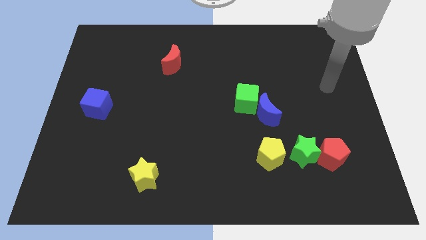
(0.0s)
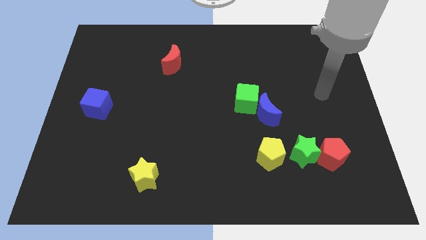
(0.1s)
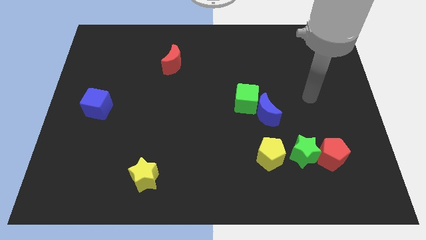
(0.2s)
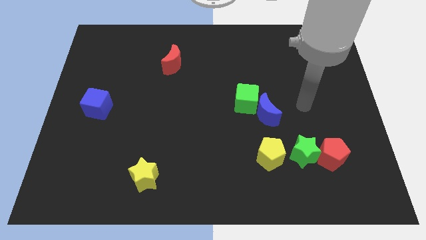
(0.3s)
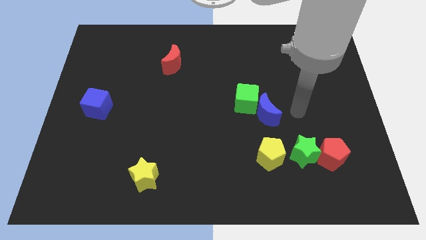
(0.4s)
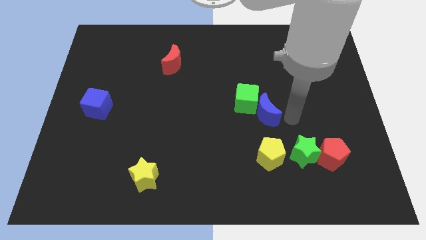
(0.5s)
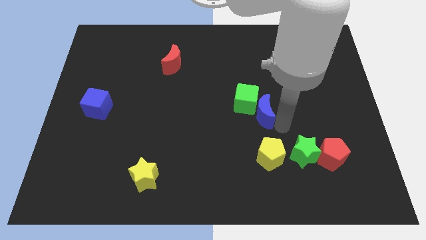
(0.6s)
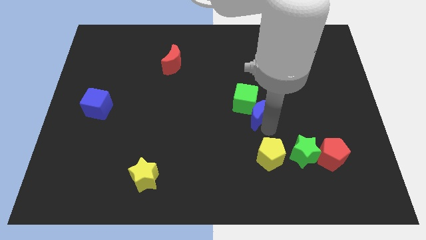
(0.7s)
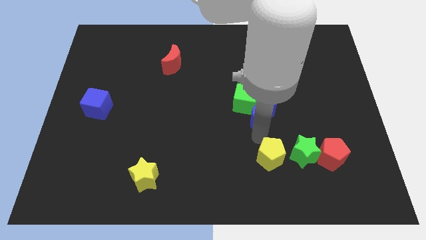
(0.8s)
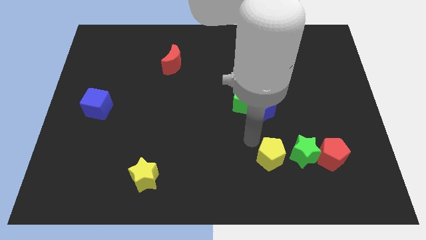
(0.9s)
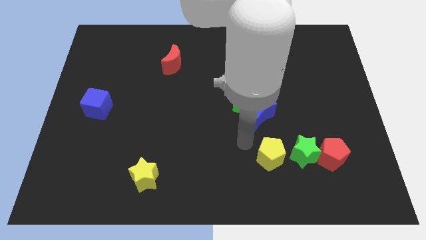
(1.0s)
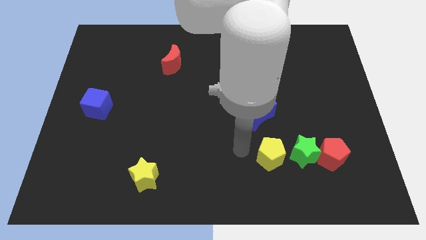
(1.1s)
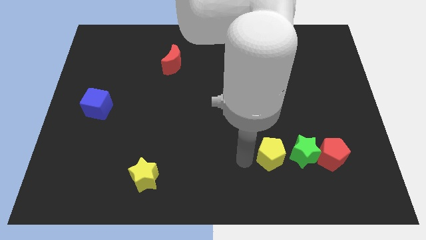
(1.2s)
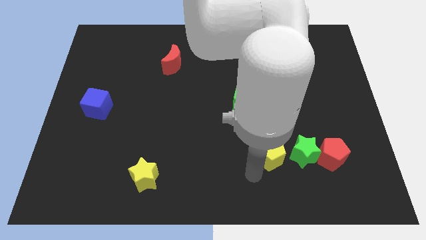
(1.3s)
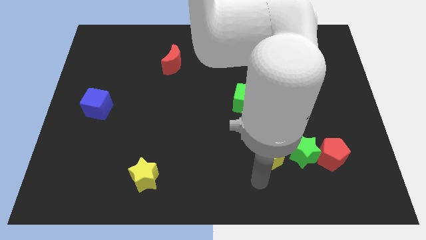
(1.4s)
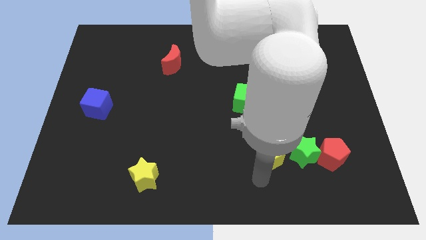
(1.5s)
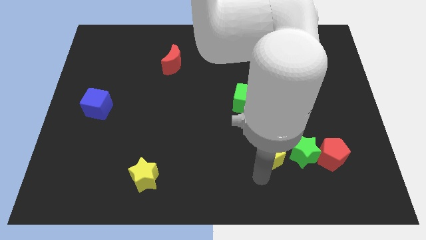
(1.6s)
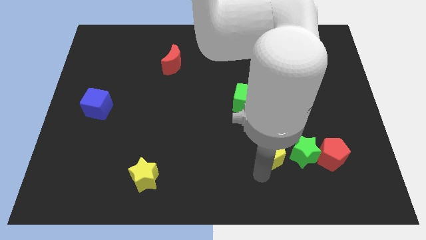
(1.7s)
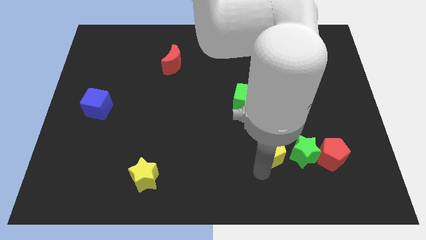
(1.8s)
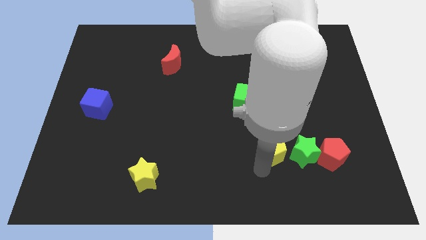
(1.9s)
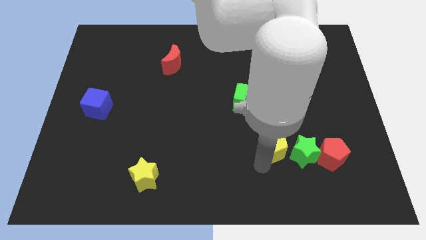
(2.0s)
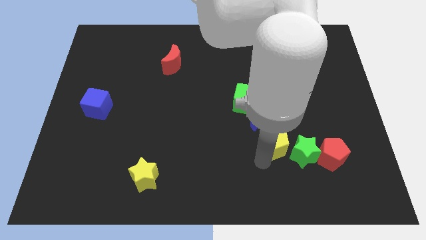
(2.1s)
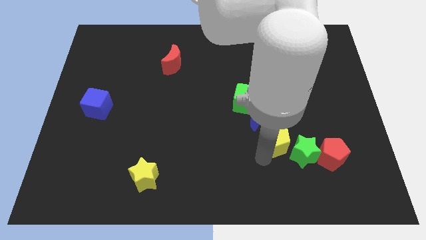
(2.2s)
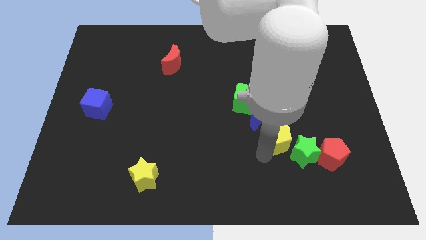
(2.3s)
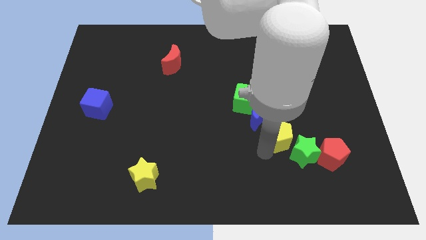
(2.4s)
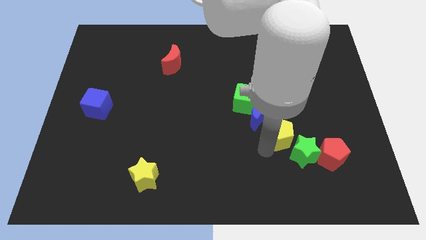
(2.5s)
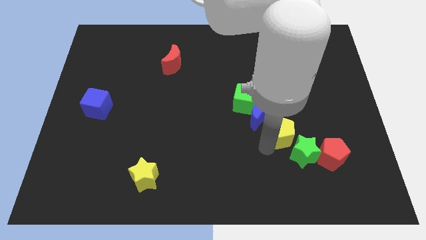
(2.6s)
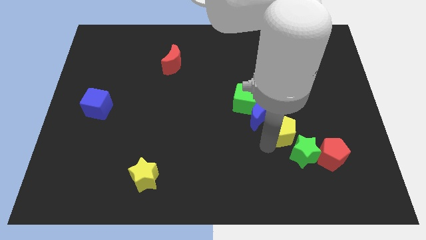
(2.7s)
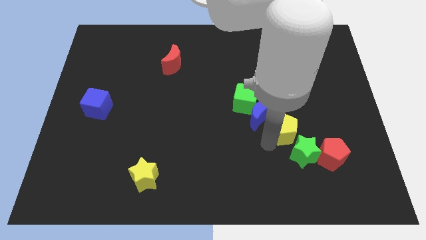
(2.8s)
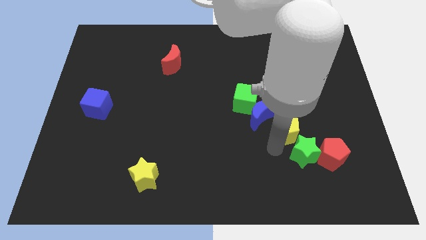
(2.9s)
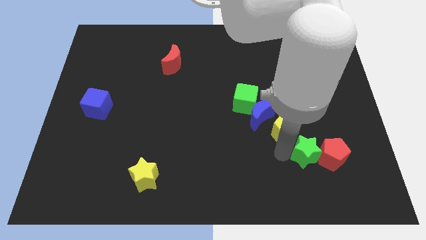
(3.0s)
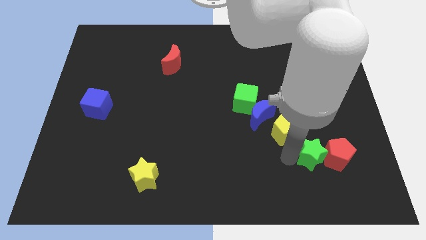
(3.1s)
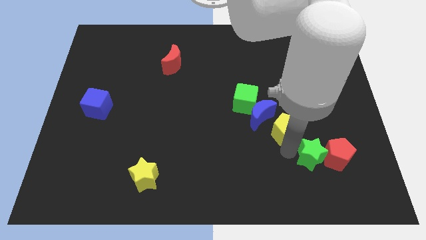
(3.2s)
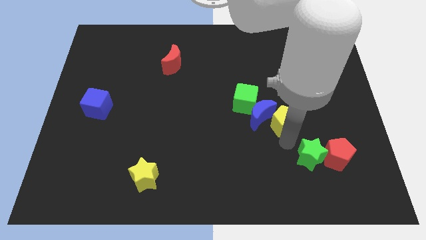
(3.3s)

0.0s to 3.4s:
push the yellow pentagon a little upwards

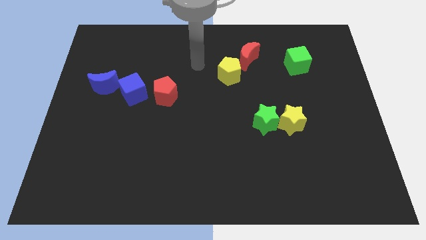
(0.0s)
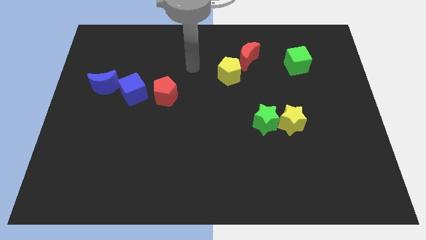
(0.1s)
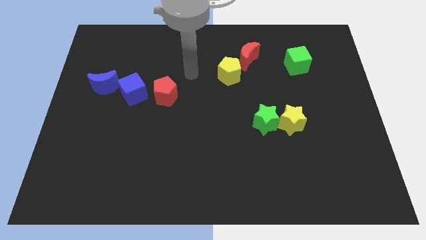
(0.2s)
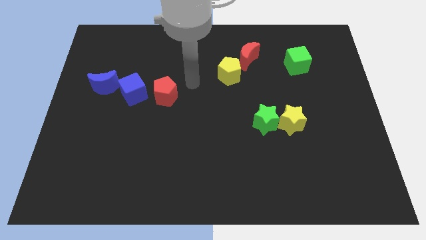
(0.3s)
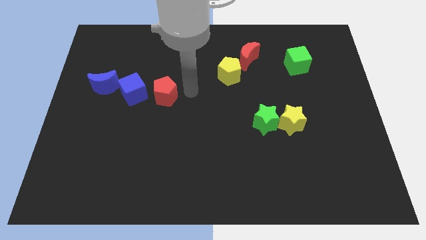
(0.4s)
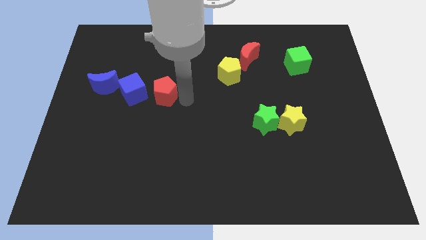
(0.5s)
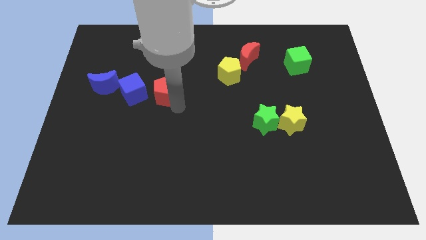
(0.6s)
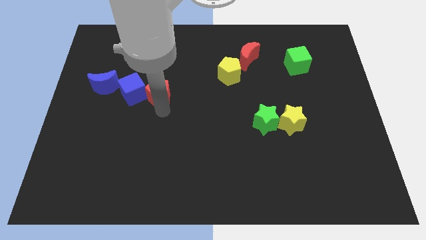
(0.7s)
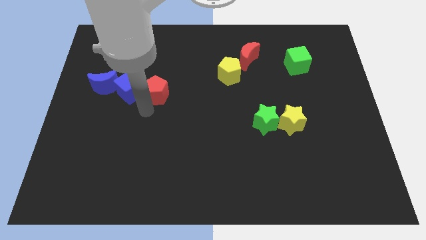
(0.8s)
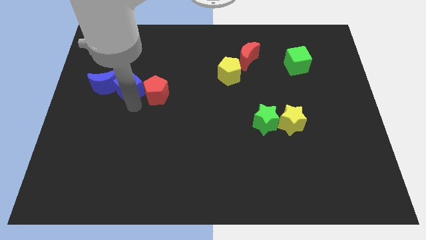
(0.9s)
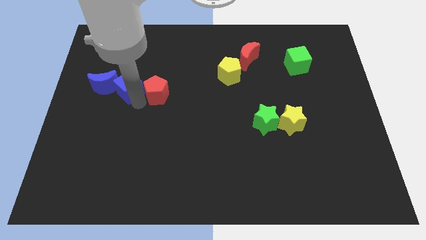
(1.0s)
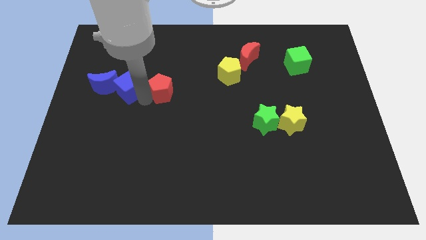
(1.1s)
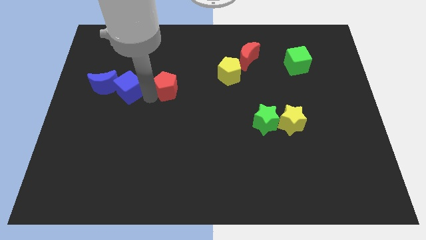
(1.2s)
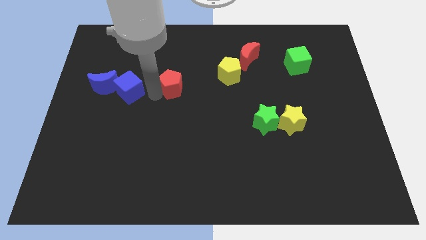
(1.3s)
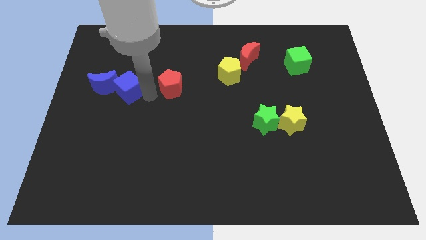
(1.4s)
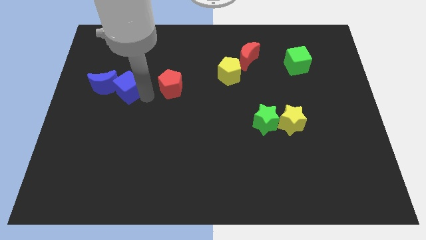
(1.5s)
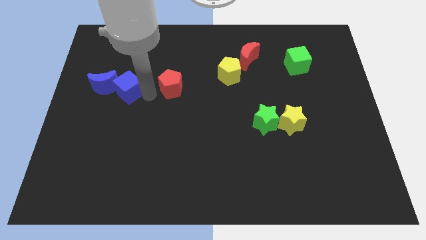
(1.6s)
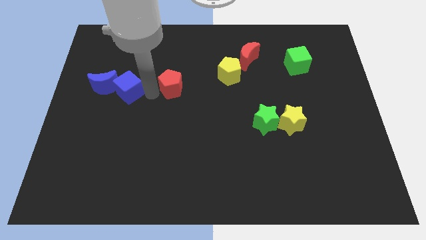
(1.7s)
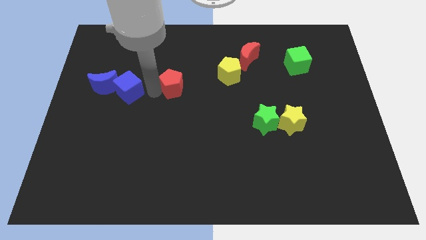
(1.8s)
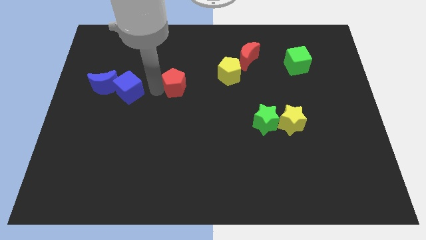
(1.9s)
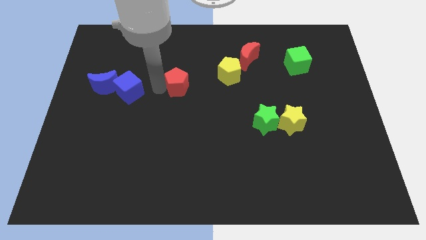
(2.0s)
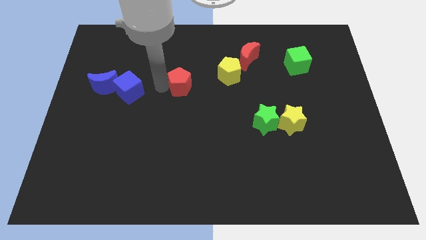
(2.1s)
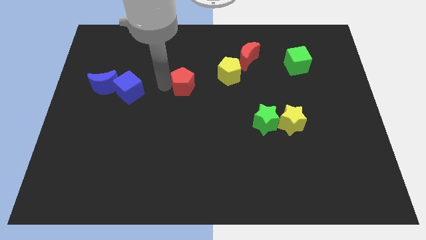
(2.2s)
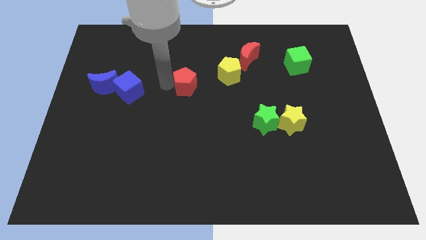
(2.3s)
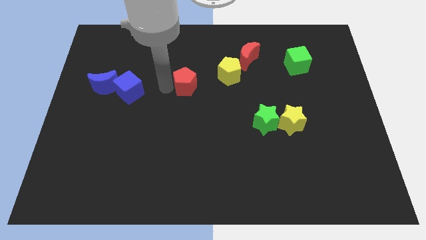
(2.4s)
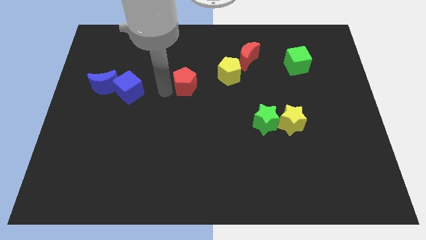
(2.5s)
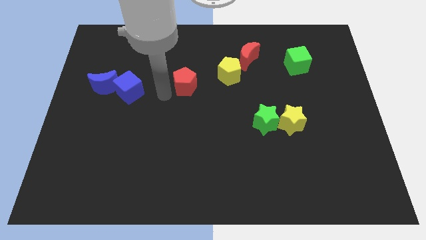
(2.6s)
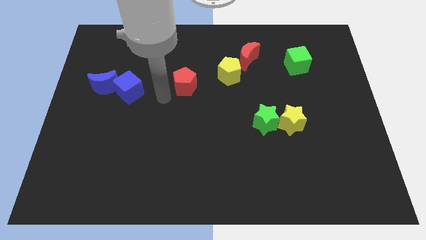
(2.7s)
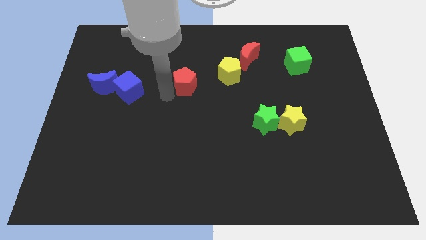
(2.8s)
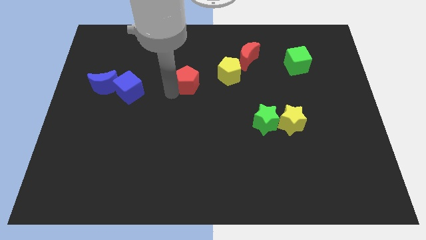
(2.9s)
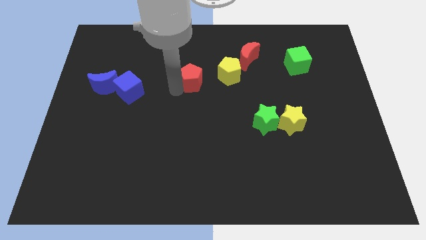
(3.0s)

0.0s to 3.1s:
push the red pentagon a bit upwards and right

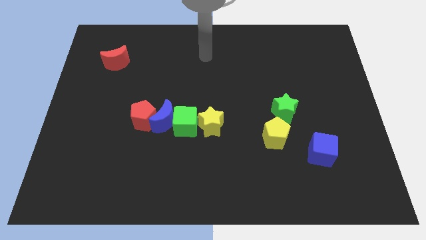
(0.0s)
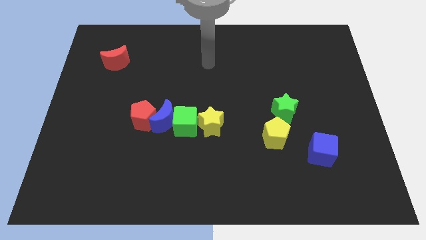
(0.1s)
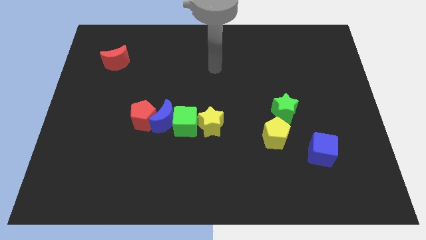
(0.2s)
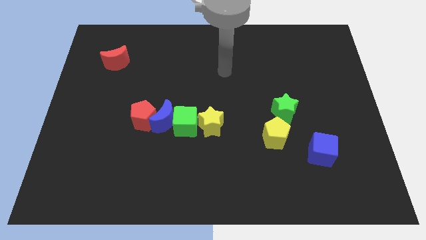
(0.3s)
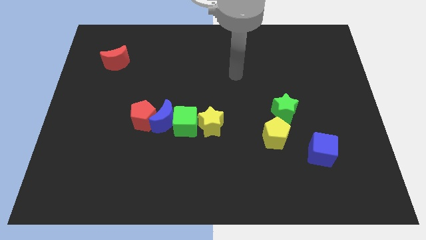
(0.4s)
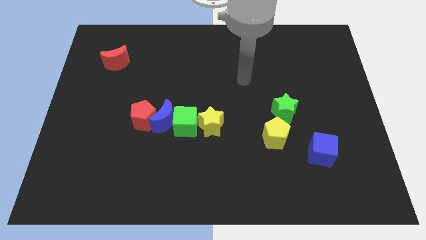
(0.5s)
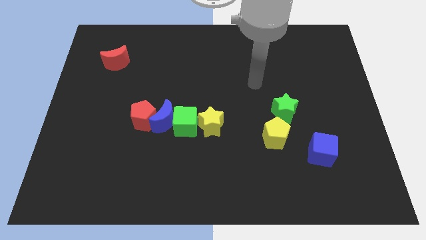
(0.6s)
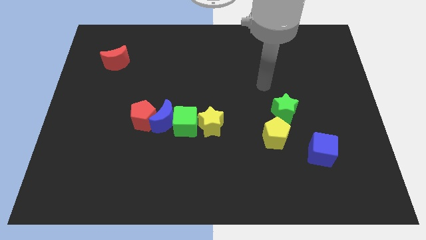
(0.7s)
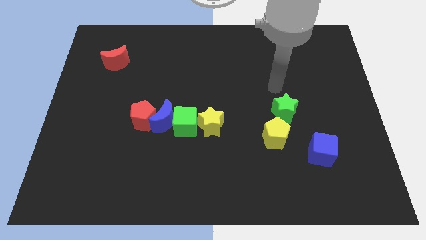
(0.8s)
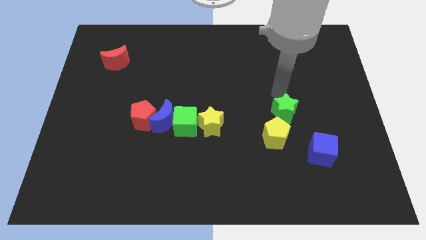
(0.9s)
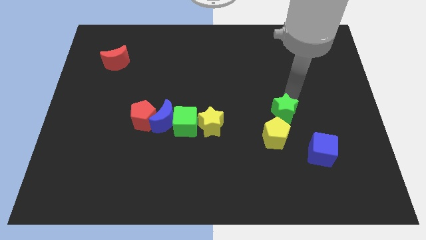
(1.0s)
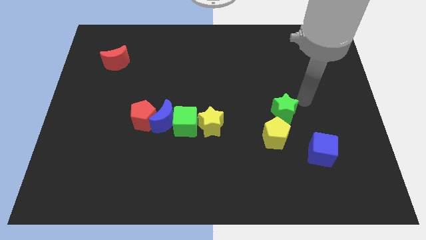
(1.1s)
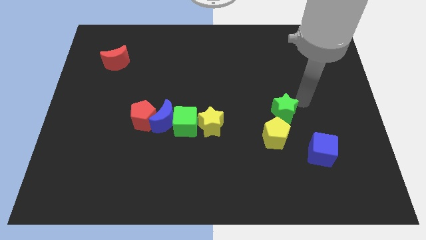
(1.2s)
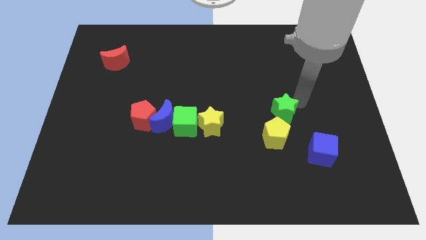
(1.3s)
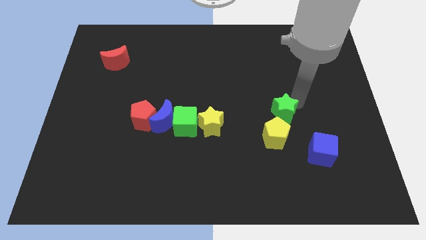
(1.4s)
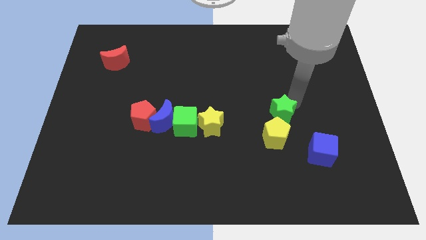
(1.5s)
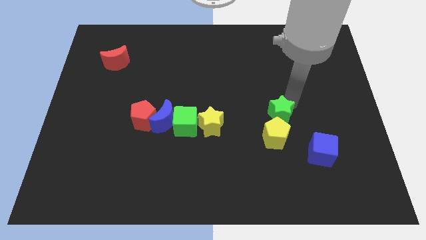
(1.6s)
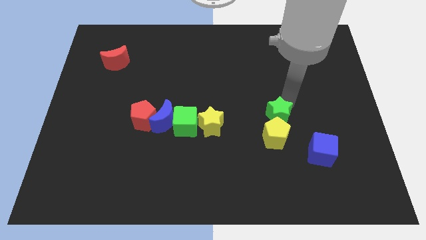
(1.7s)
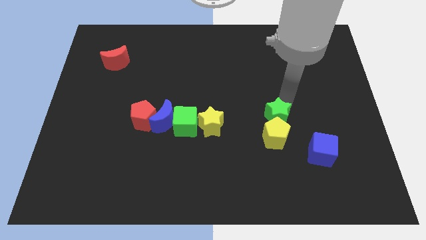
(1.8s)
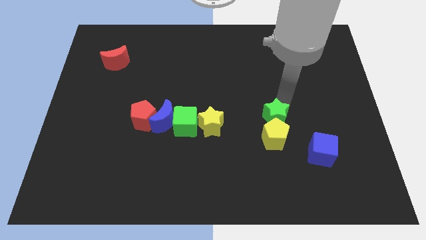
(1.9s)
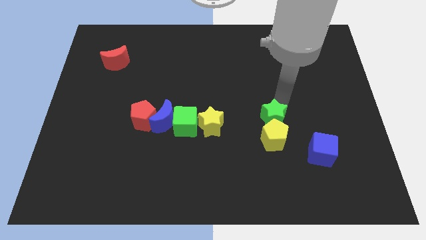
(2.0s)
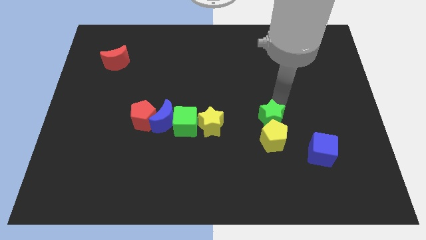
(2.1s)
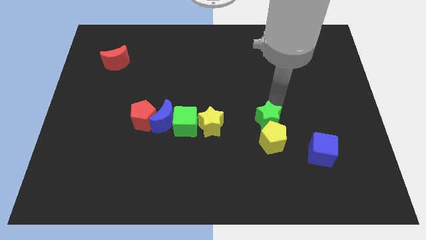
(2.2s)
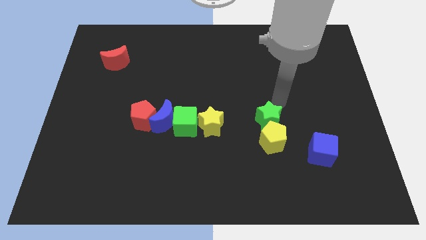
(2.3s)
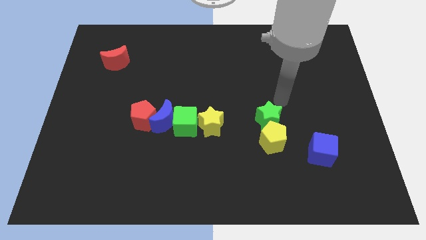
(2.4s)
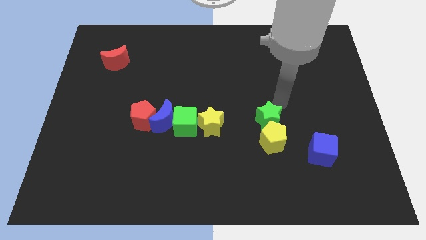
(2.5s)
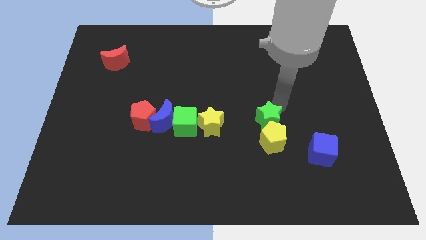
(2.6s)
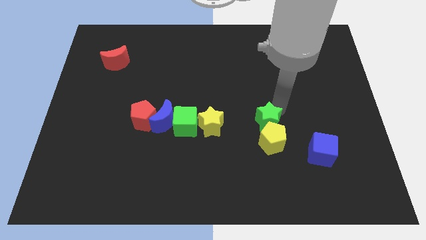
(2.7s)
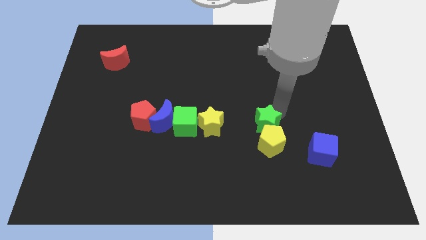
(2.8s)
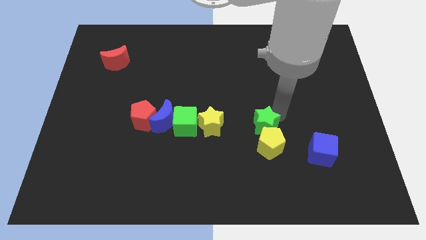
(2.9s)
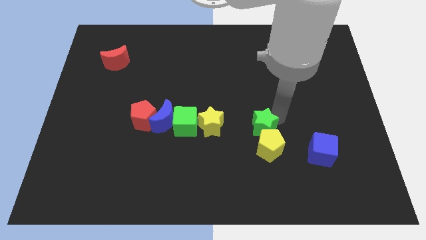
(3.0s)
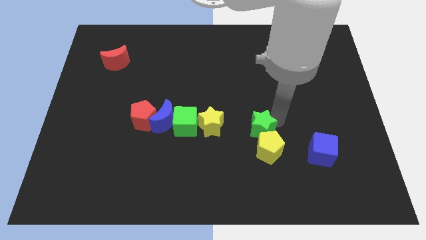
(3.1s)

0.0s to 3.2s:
move the green star a little down and left
